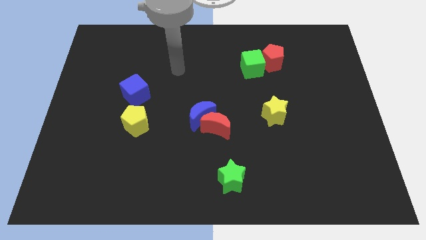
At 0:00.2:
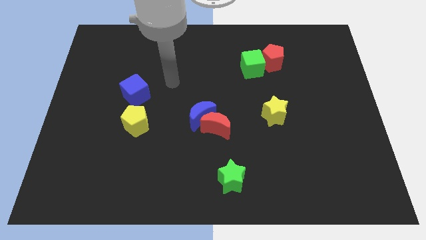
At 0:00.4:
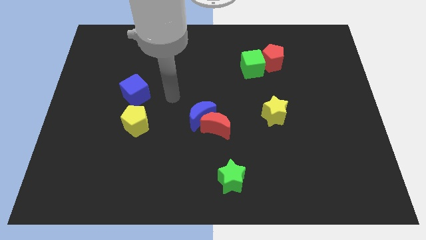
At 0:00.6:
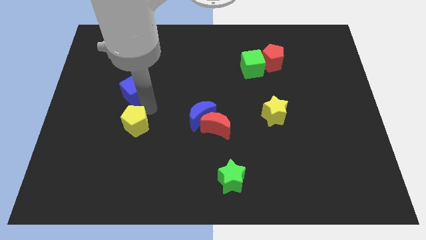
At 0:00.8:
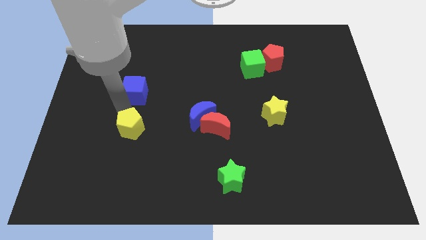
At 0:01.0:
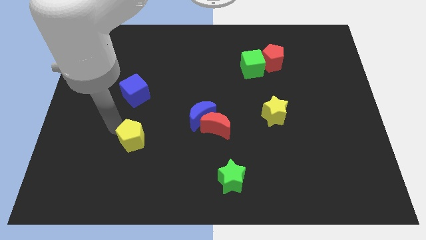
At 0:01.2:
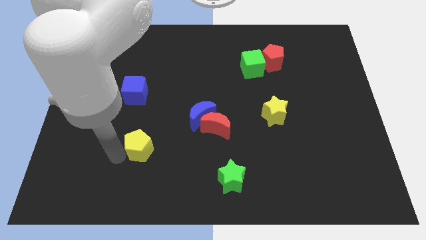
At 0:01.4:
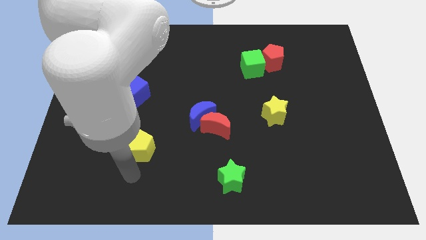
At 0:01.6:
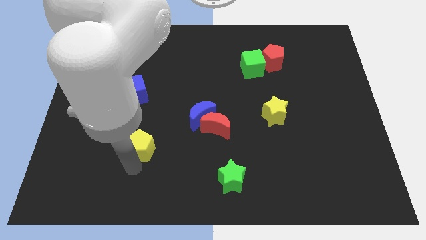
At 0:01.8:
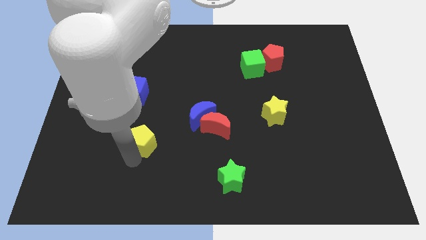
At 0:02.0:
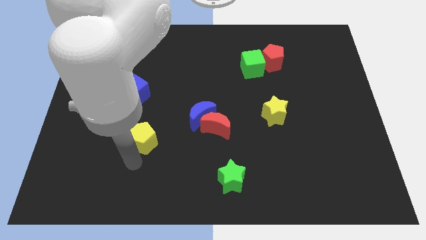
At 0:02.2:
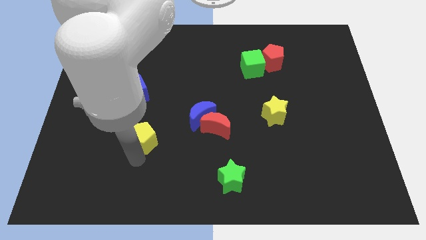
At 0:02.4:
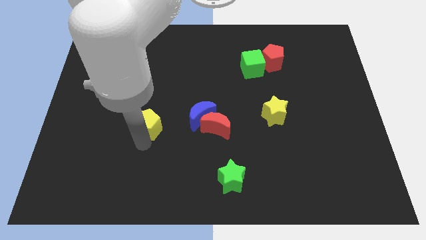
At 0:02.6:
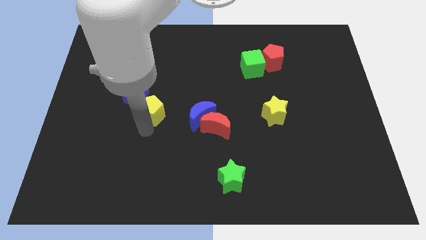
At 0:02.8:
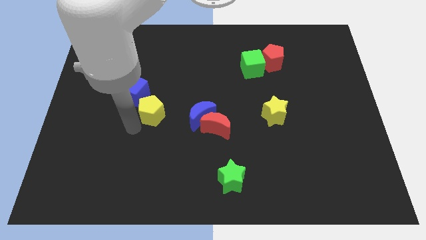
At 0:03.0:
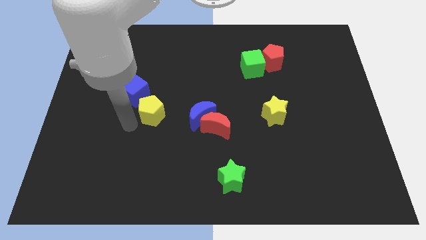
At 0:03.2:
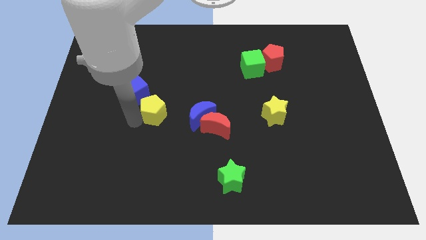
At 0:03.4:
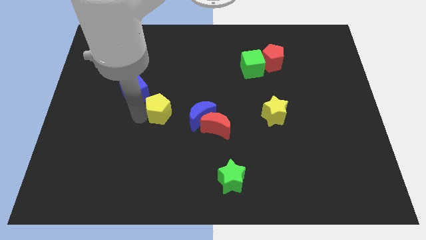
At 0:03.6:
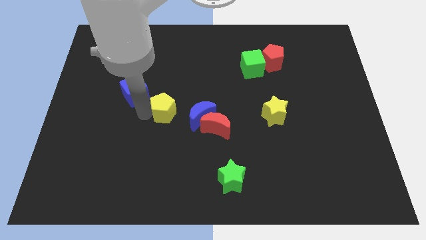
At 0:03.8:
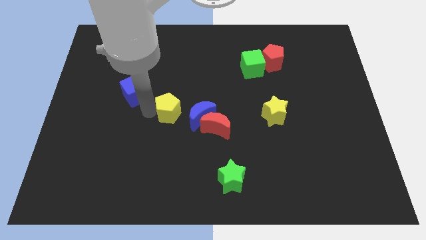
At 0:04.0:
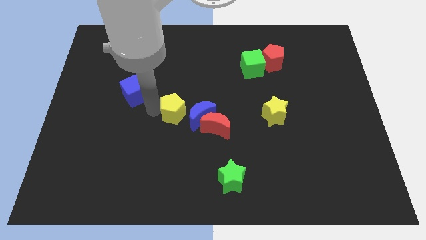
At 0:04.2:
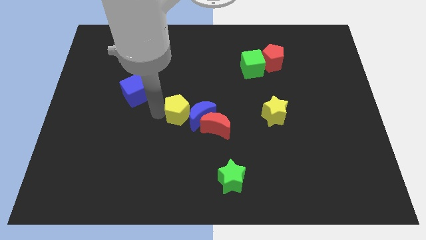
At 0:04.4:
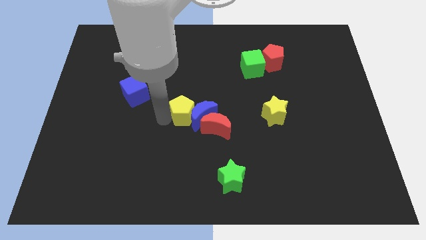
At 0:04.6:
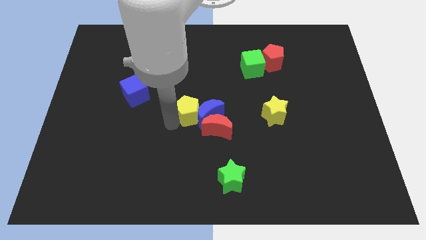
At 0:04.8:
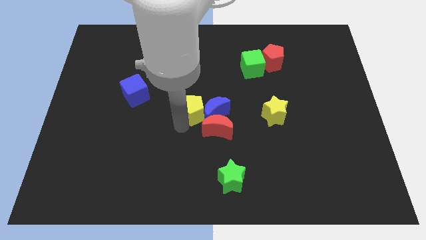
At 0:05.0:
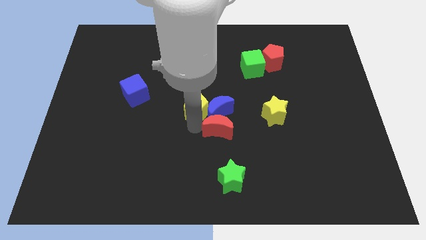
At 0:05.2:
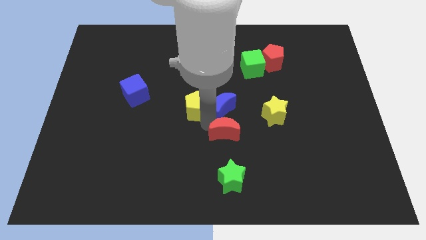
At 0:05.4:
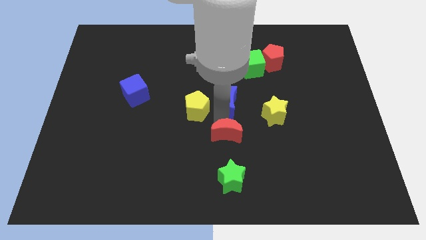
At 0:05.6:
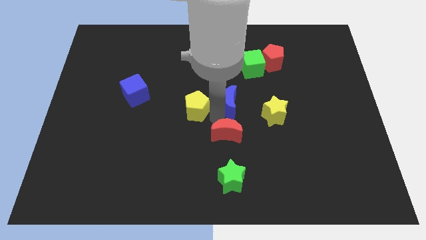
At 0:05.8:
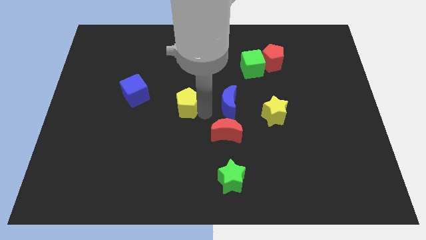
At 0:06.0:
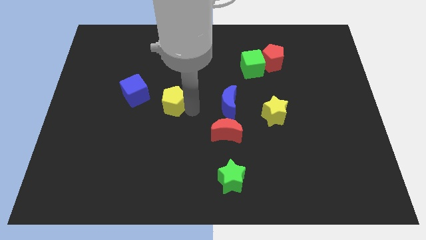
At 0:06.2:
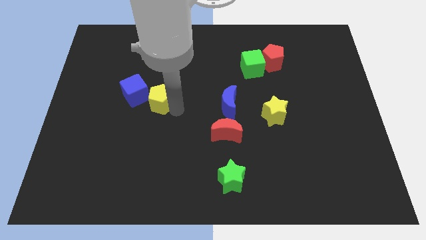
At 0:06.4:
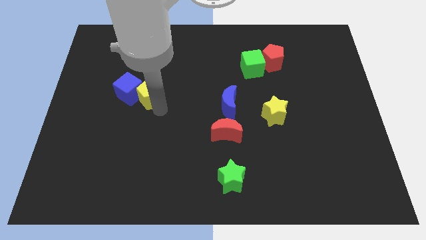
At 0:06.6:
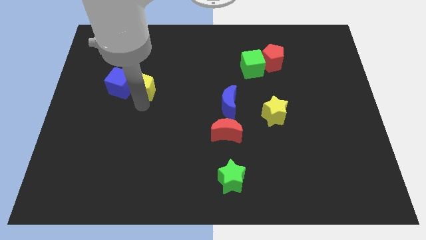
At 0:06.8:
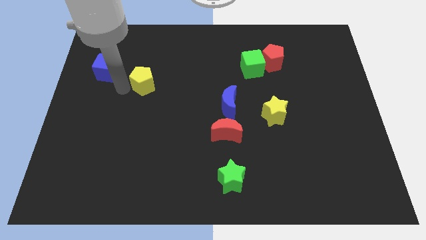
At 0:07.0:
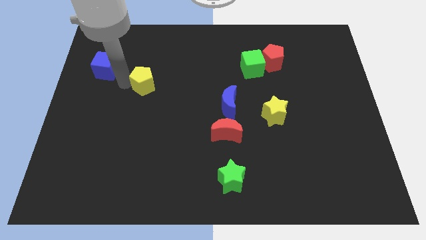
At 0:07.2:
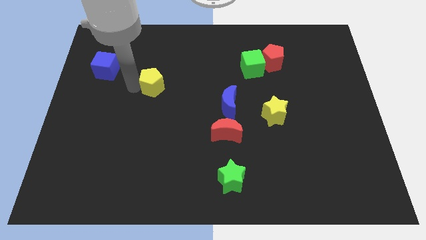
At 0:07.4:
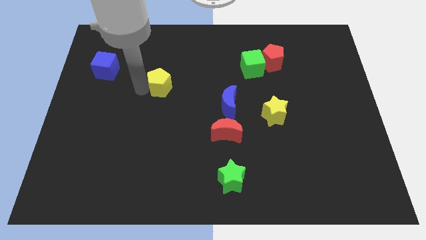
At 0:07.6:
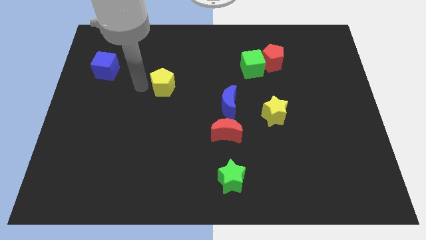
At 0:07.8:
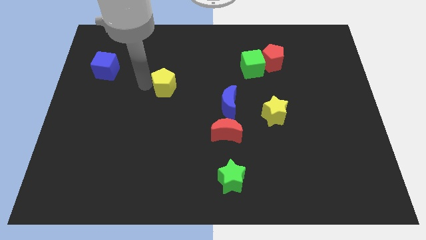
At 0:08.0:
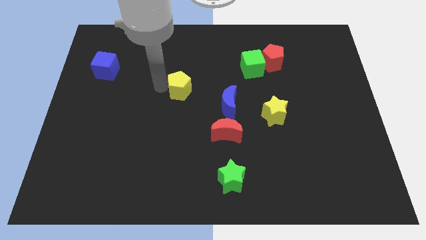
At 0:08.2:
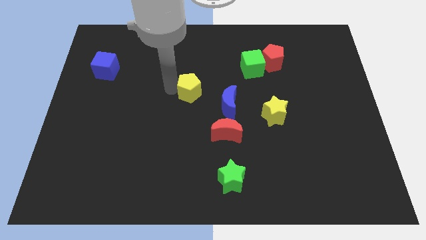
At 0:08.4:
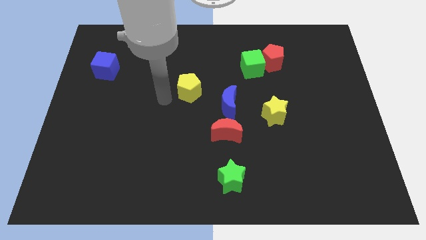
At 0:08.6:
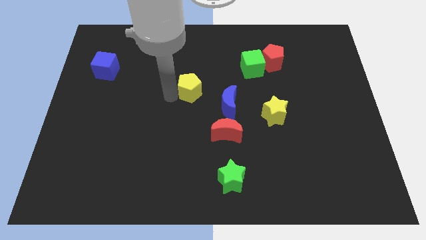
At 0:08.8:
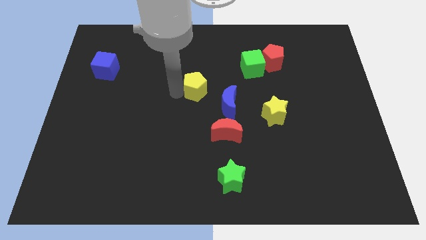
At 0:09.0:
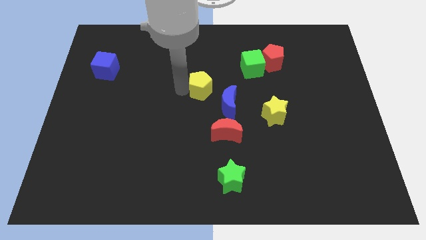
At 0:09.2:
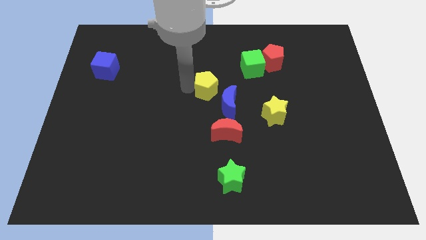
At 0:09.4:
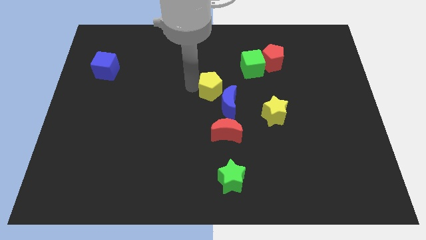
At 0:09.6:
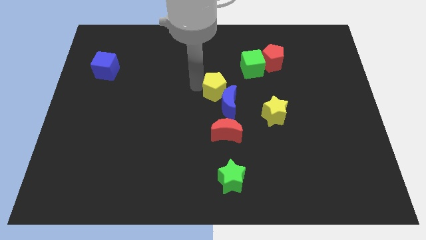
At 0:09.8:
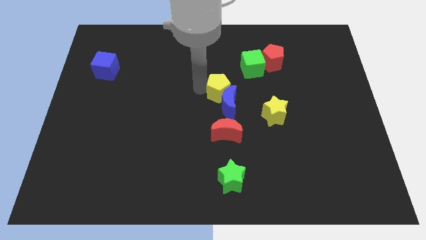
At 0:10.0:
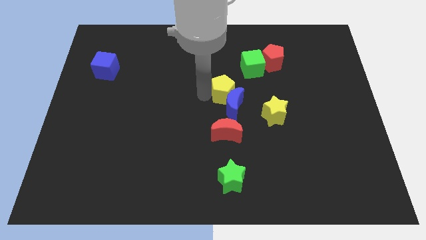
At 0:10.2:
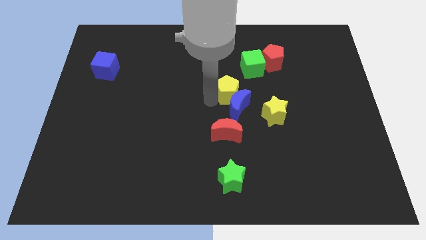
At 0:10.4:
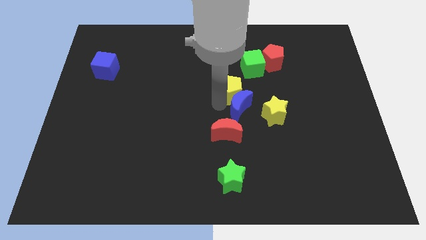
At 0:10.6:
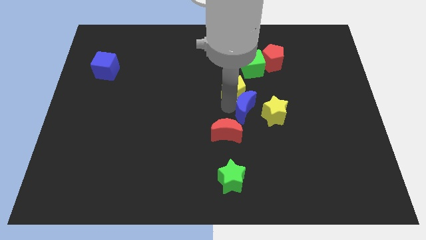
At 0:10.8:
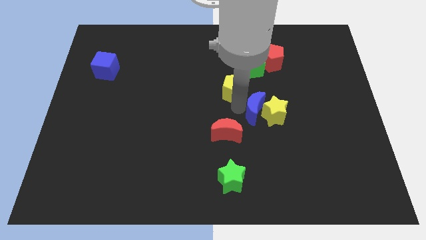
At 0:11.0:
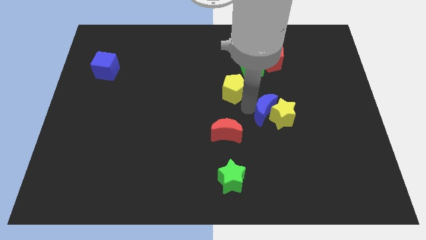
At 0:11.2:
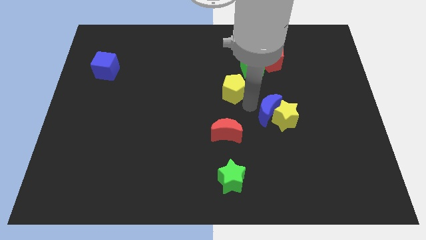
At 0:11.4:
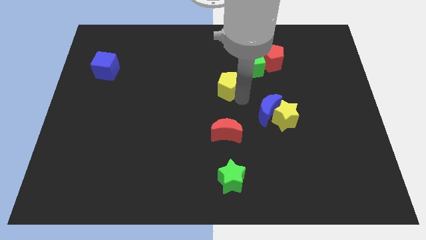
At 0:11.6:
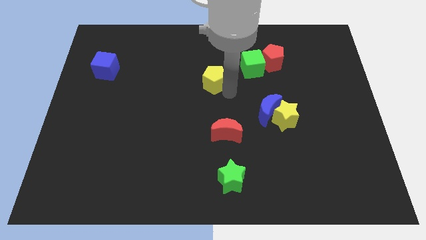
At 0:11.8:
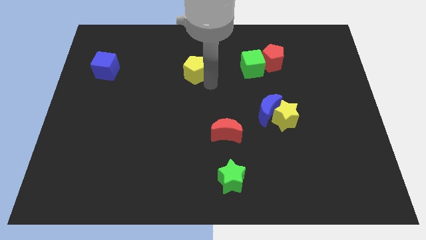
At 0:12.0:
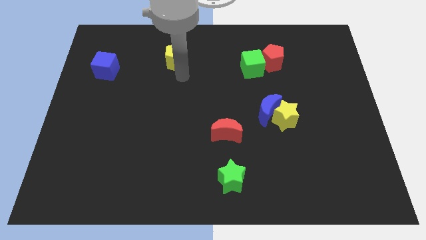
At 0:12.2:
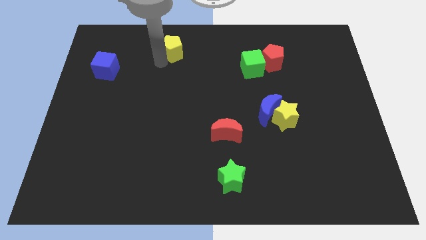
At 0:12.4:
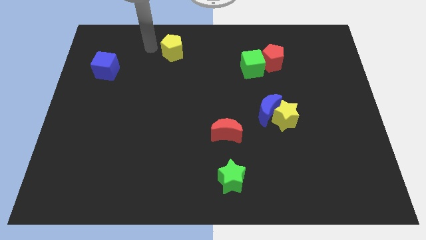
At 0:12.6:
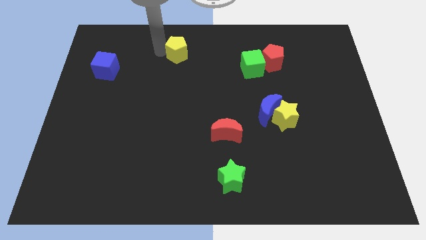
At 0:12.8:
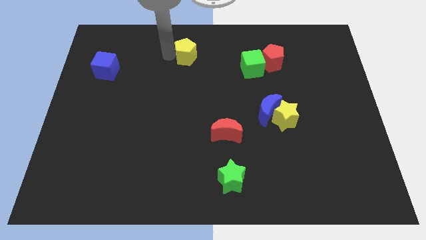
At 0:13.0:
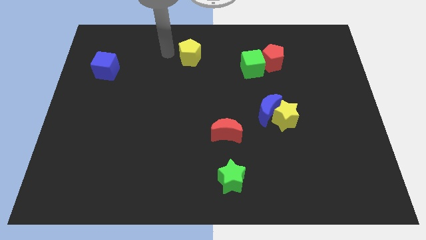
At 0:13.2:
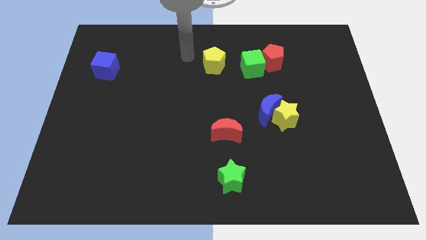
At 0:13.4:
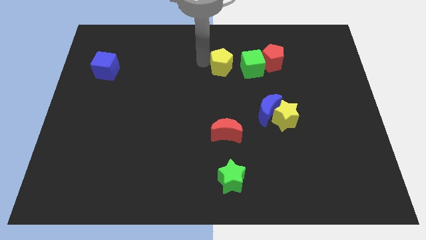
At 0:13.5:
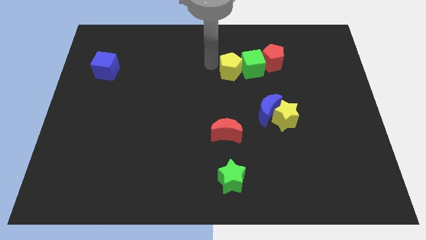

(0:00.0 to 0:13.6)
slide the yellow pentagon towards the green cube
